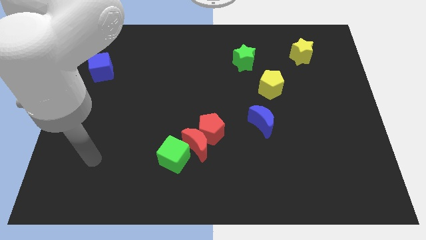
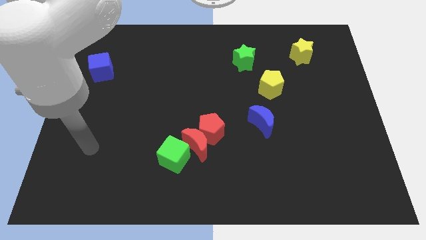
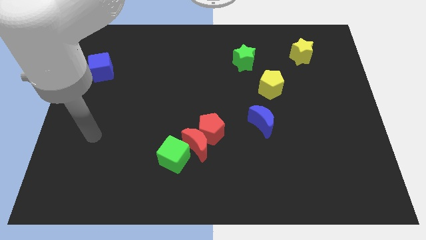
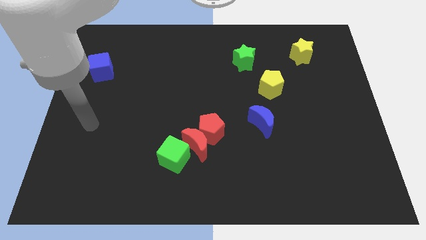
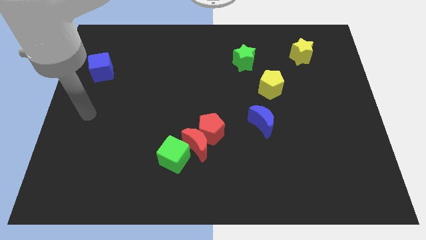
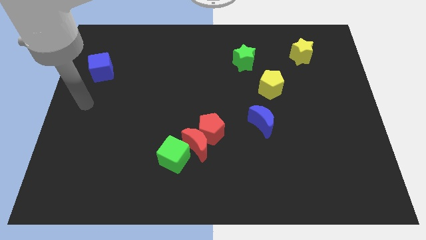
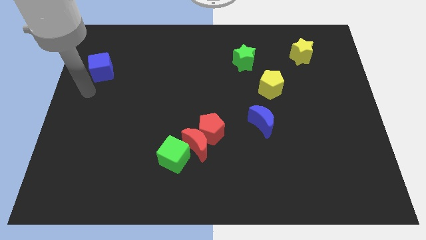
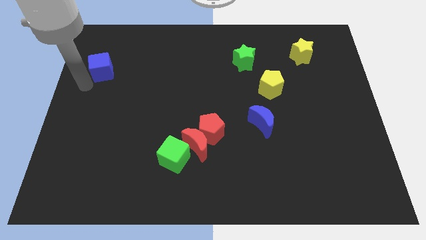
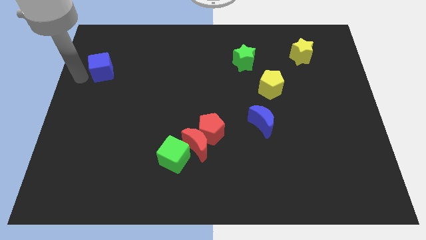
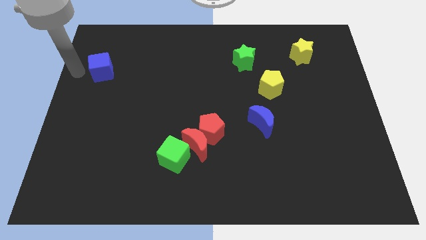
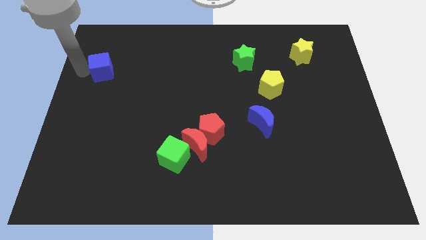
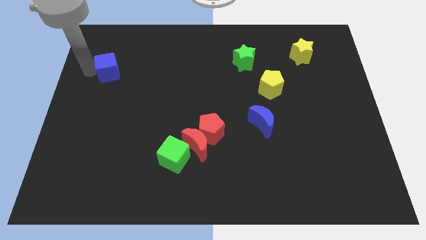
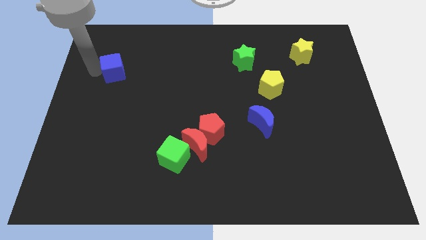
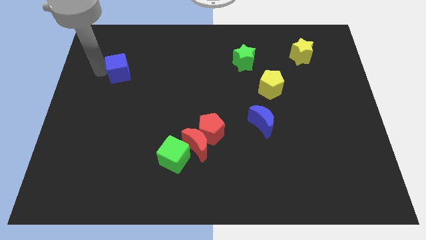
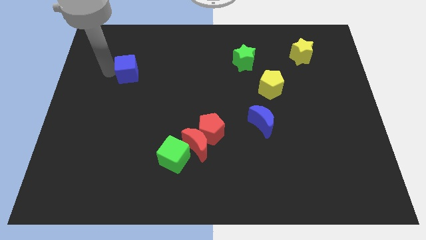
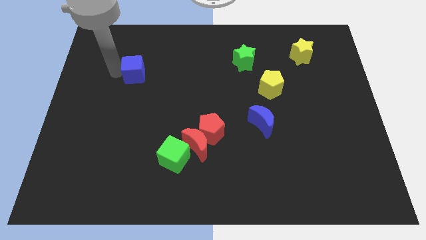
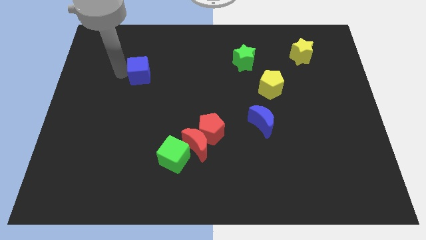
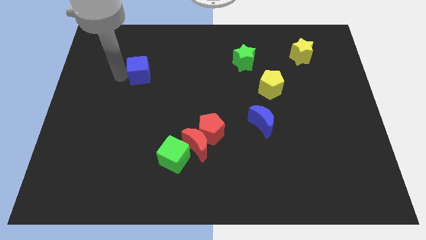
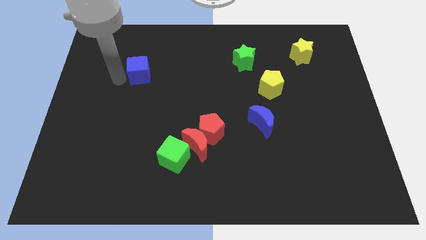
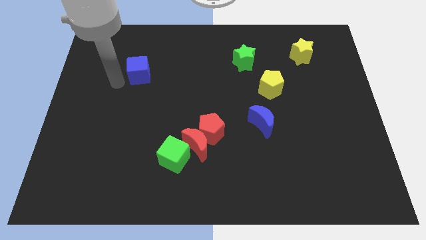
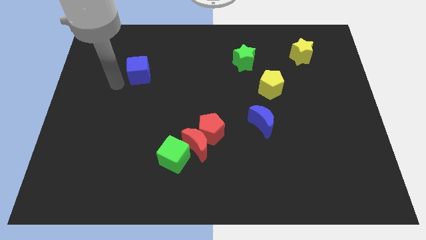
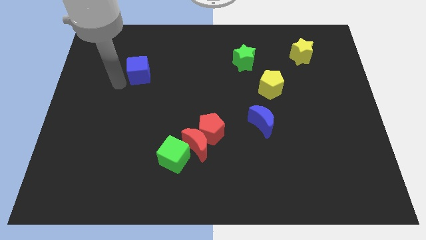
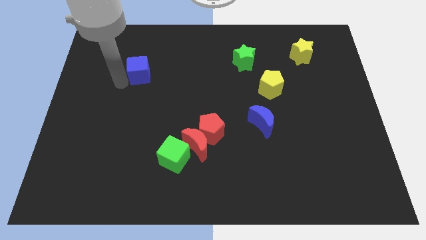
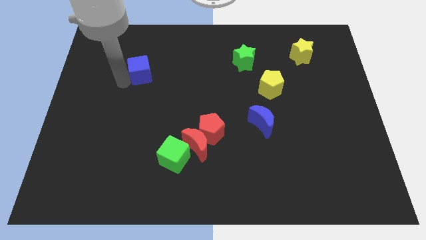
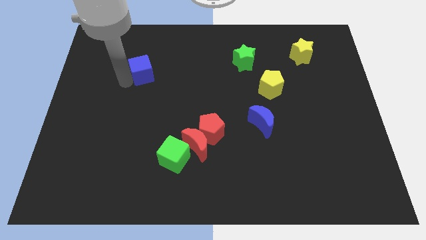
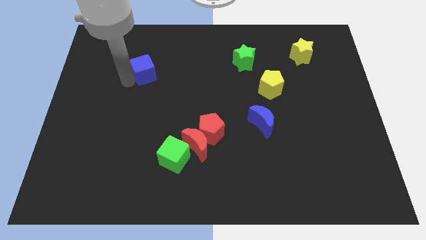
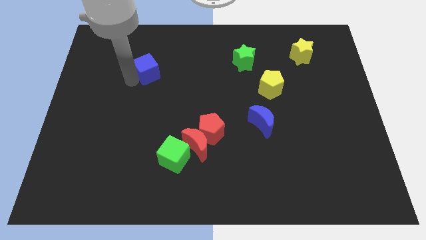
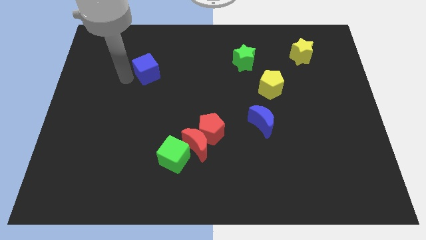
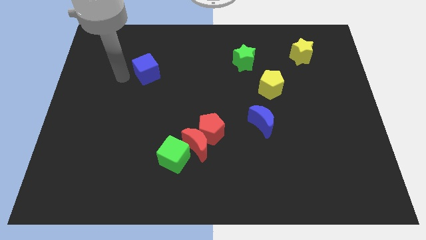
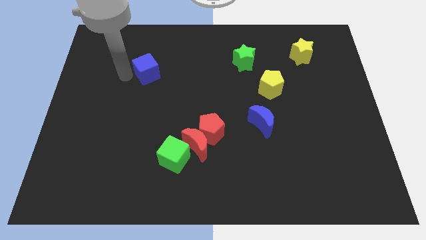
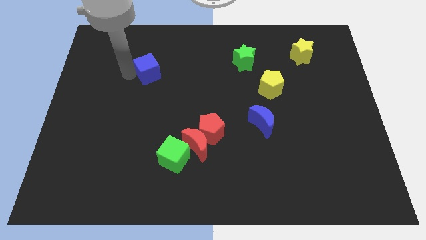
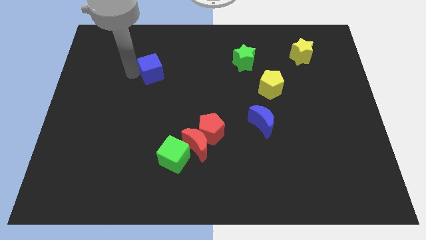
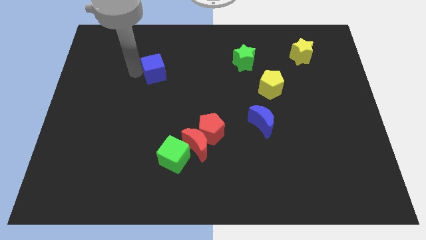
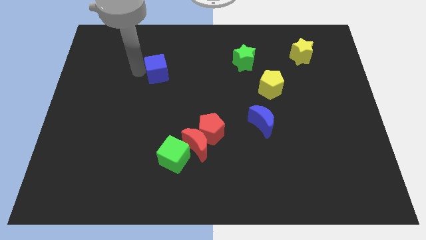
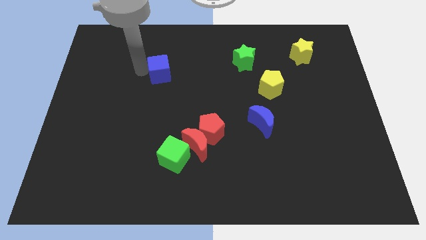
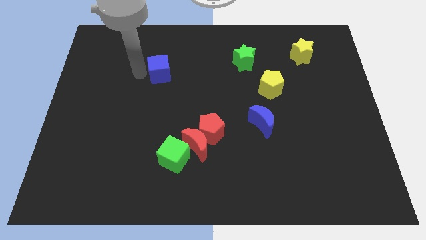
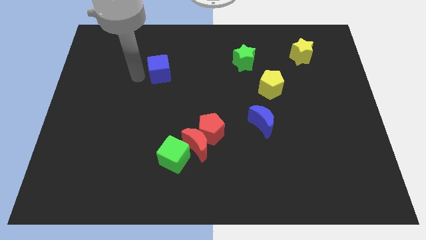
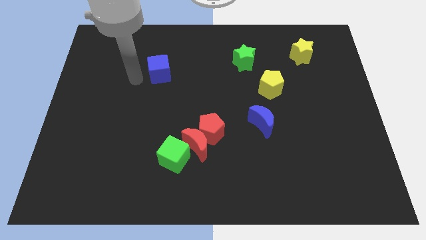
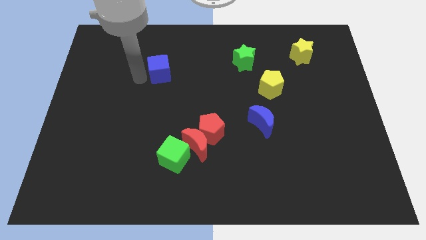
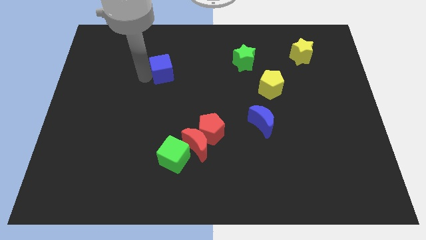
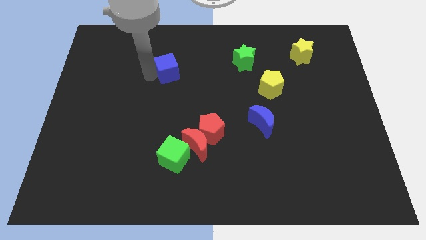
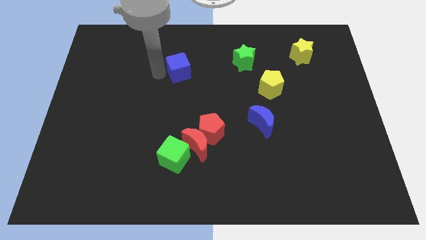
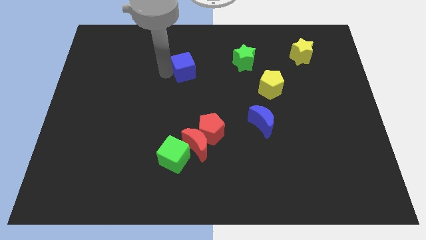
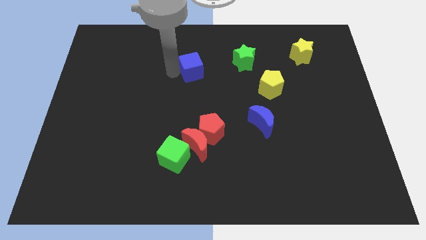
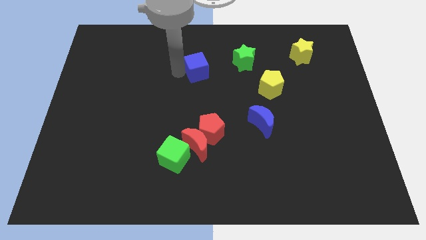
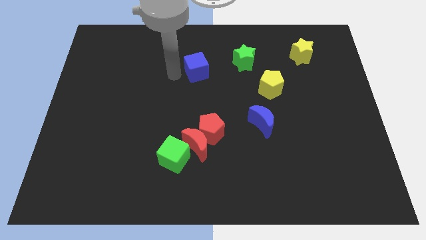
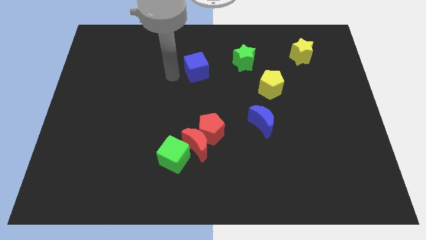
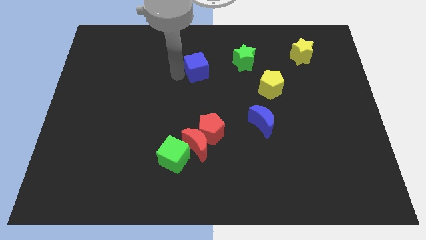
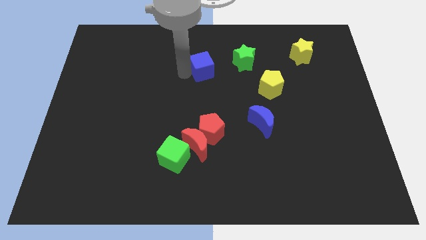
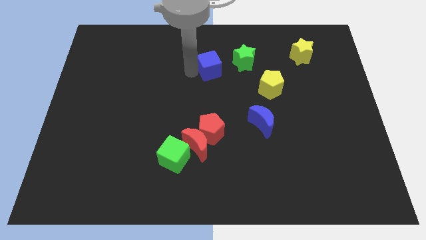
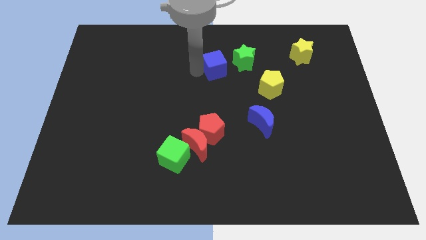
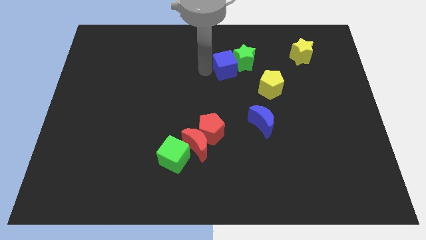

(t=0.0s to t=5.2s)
slide the blue cube towards the green star

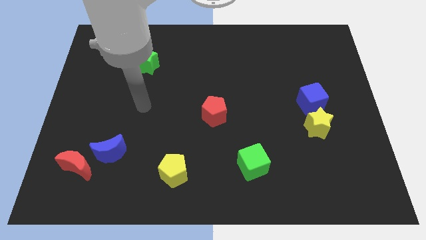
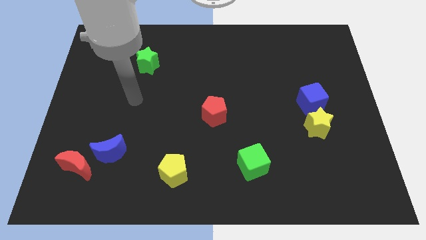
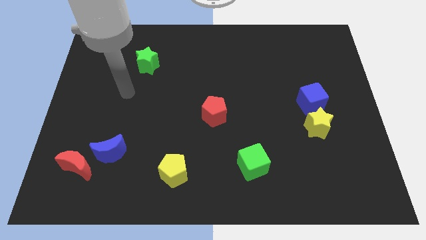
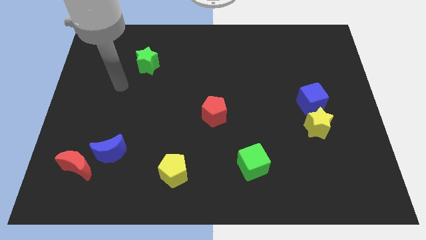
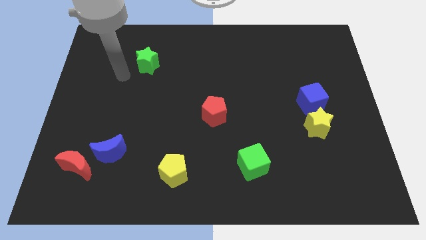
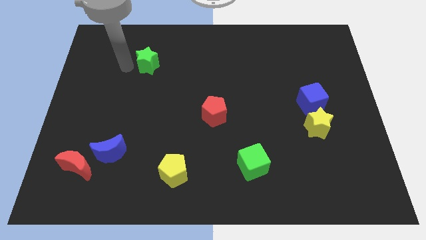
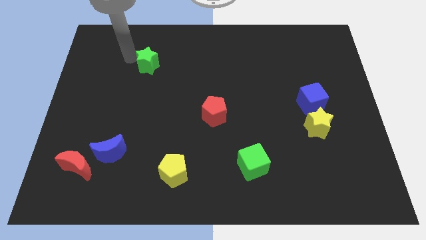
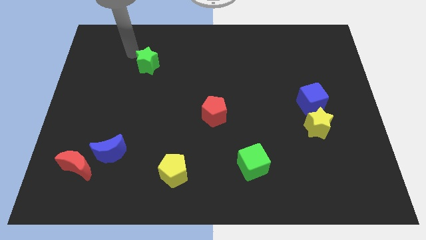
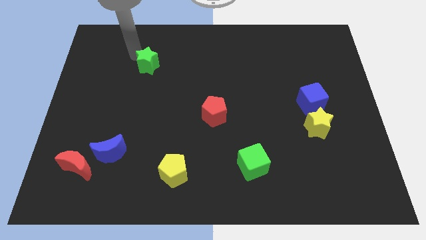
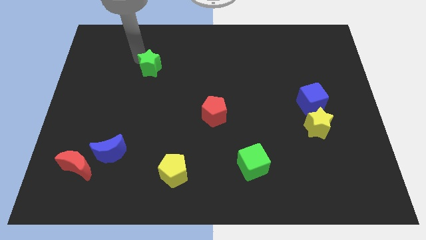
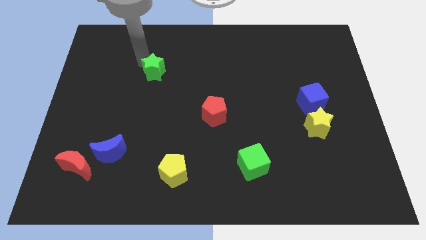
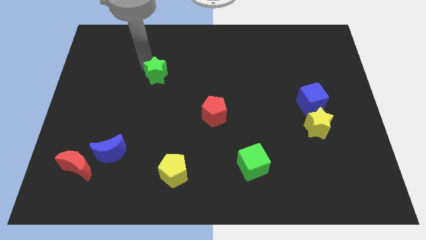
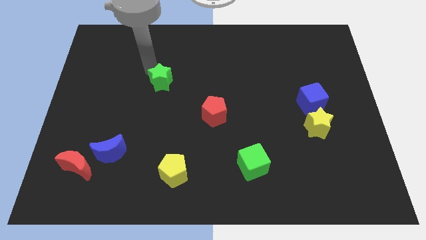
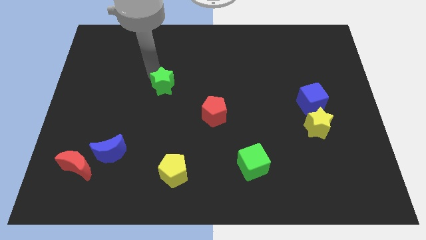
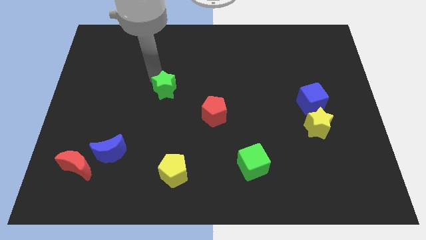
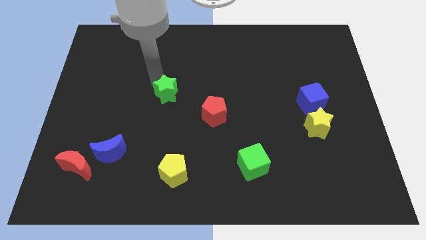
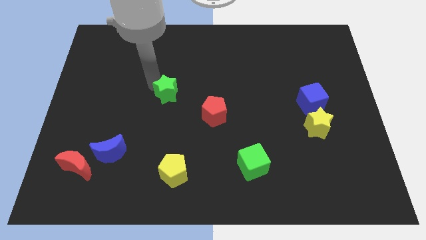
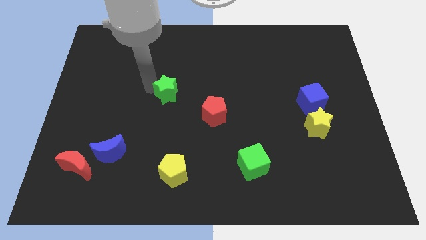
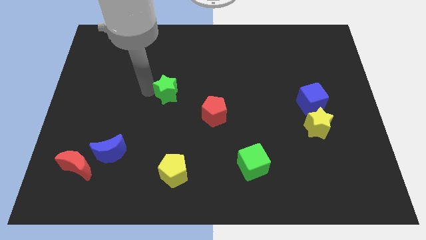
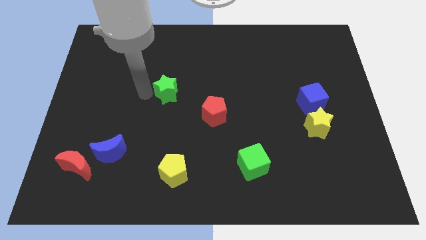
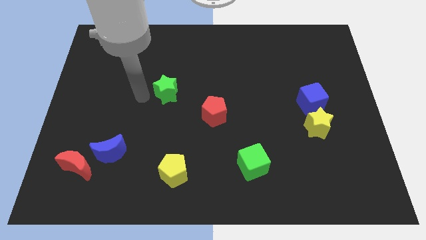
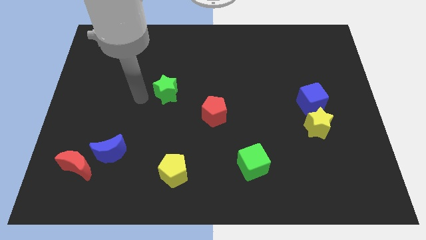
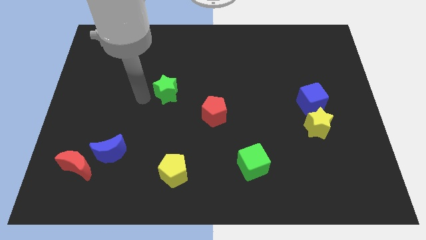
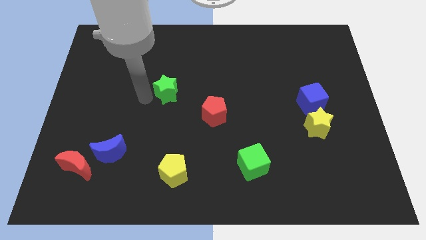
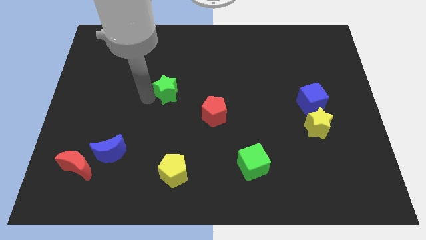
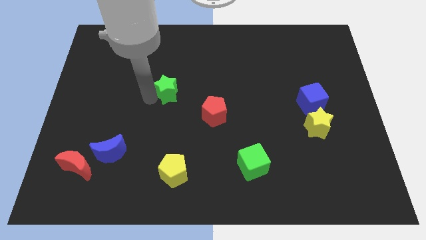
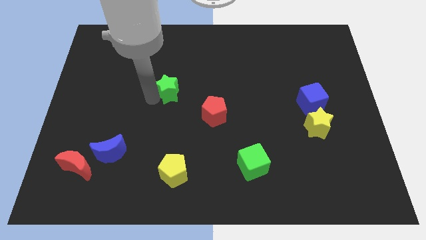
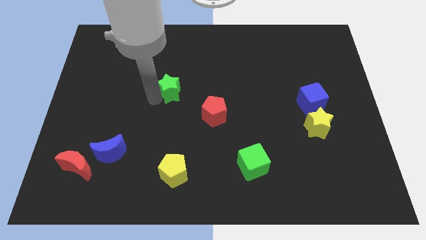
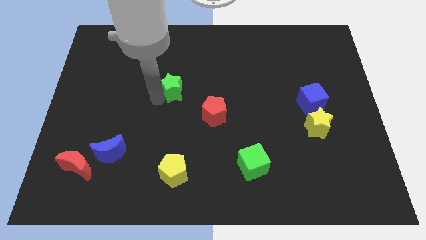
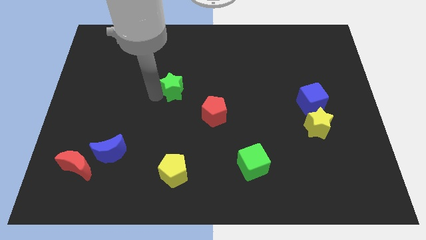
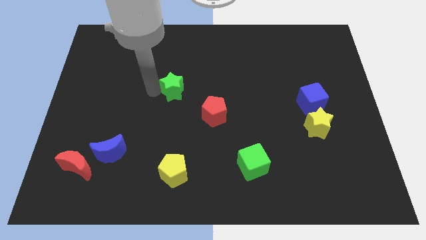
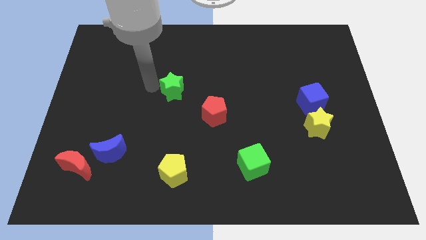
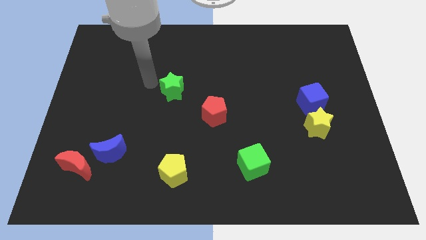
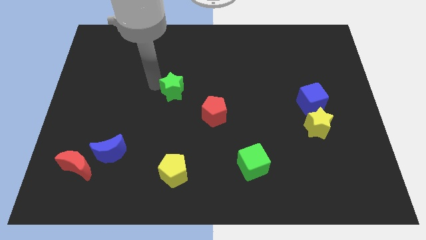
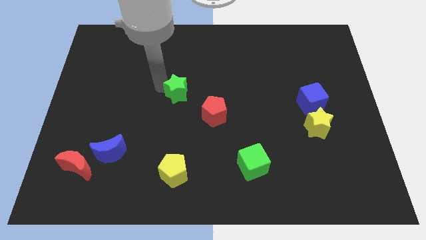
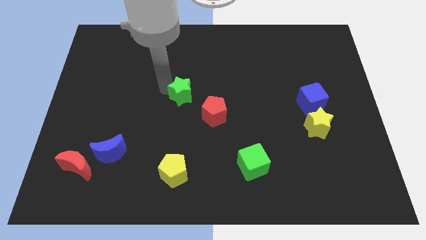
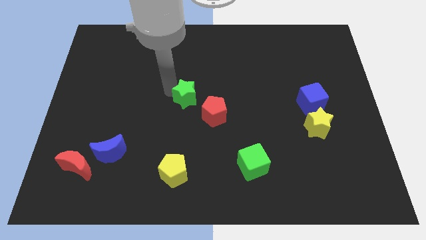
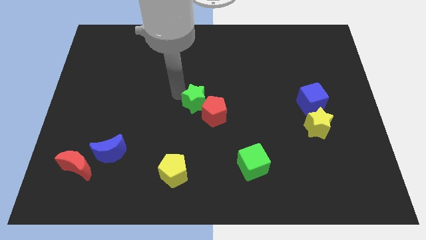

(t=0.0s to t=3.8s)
put the green star next to the red pentagon
